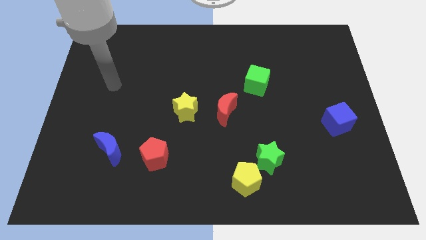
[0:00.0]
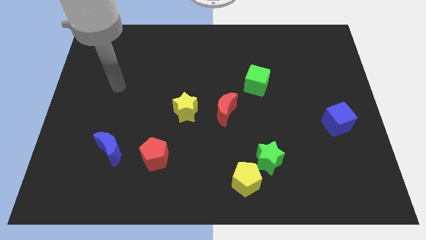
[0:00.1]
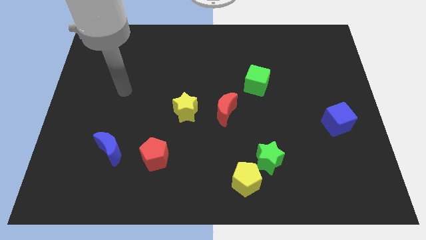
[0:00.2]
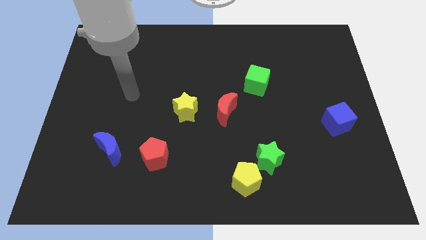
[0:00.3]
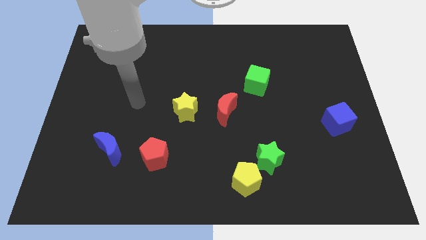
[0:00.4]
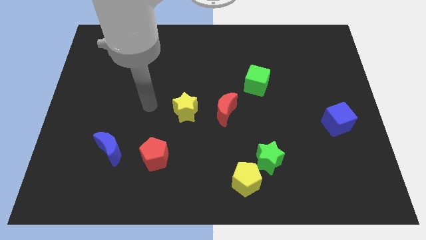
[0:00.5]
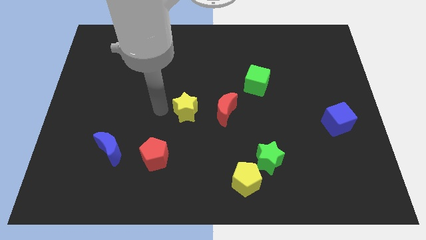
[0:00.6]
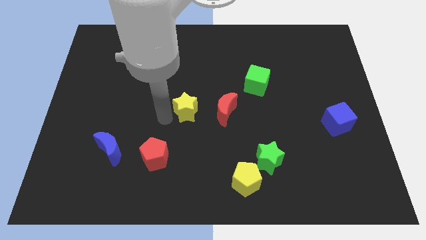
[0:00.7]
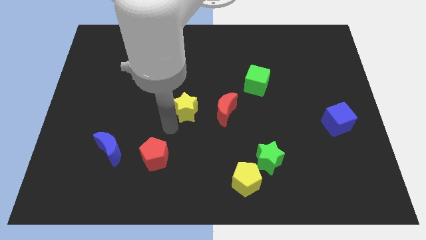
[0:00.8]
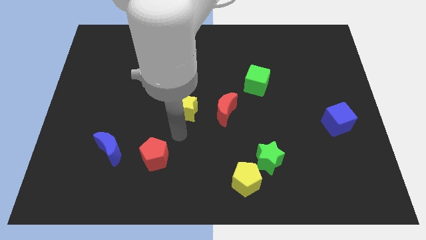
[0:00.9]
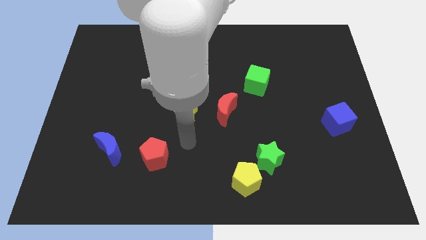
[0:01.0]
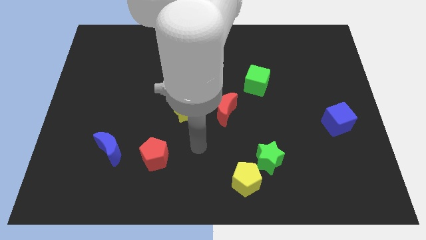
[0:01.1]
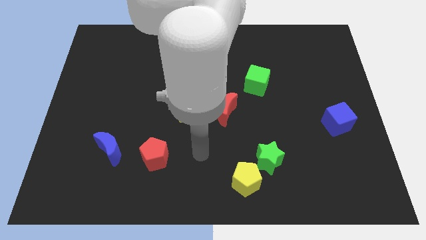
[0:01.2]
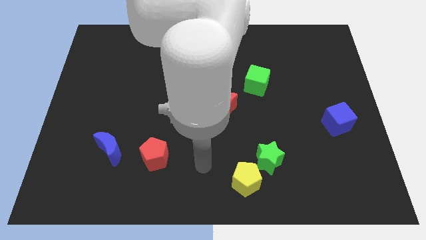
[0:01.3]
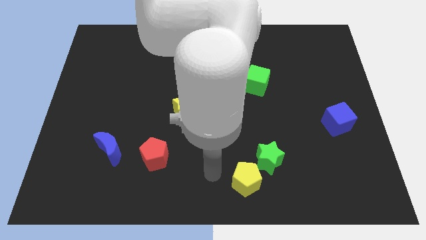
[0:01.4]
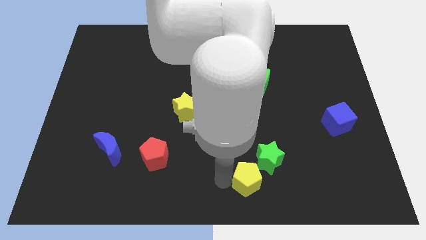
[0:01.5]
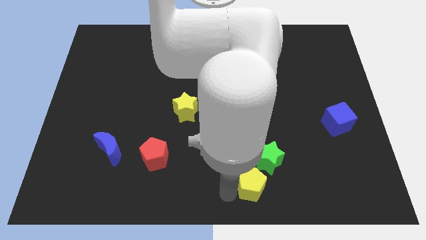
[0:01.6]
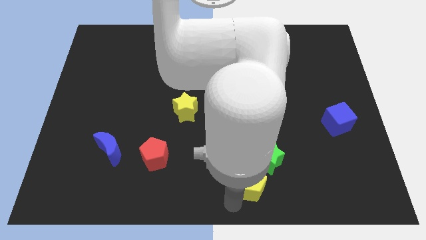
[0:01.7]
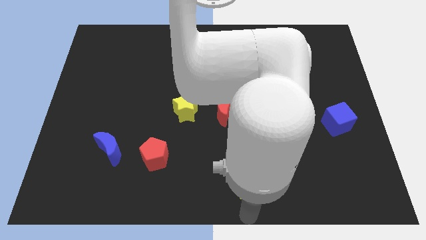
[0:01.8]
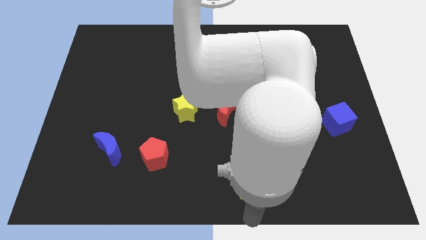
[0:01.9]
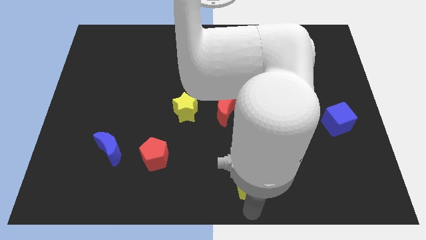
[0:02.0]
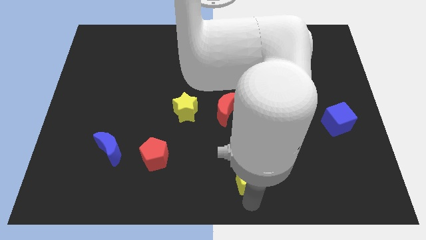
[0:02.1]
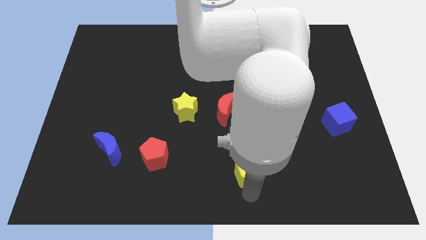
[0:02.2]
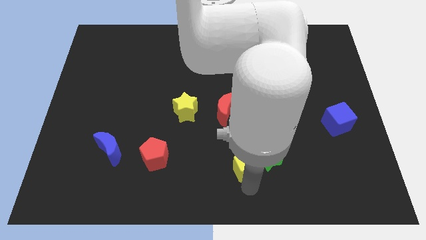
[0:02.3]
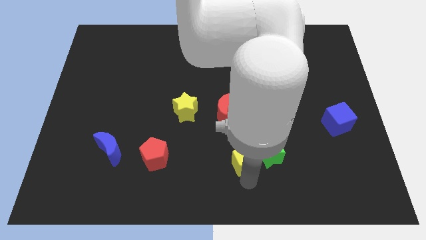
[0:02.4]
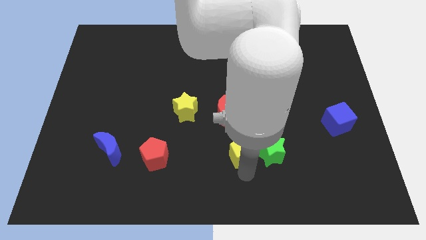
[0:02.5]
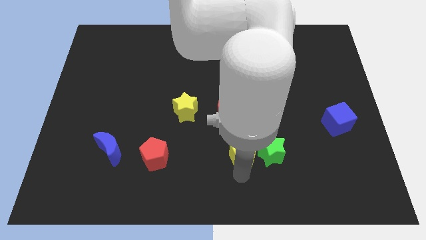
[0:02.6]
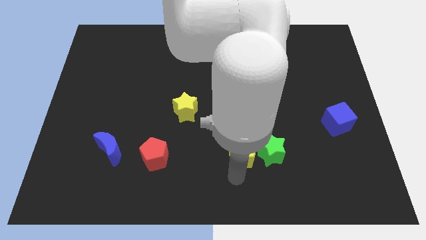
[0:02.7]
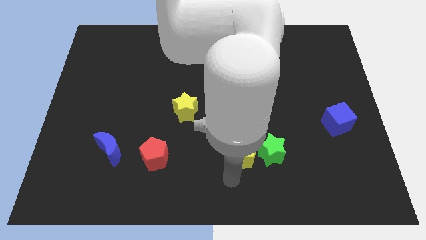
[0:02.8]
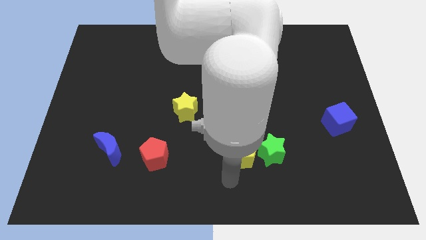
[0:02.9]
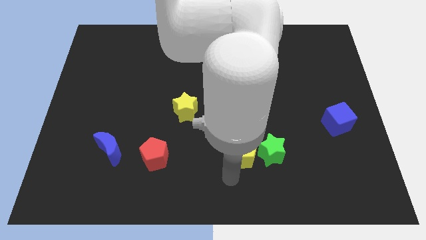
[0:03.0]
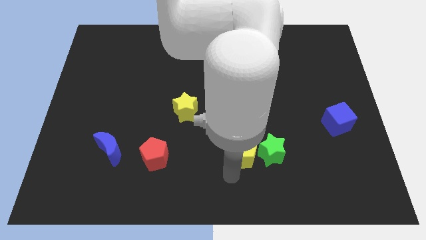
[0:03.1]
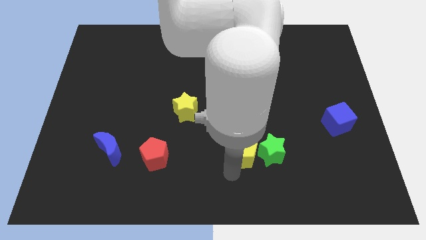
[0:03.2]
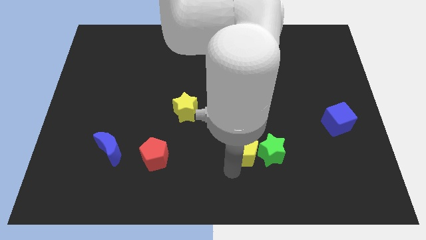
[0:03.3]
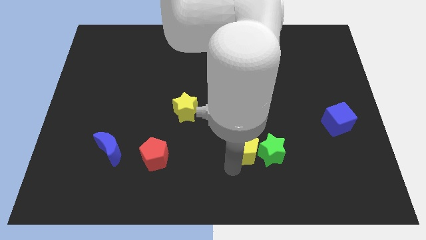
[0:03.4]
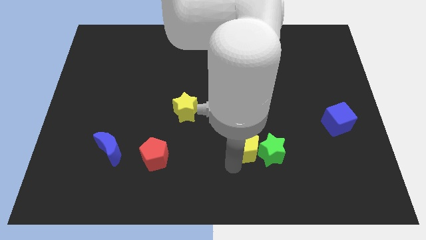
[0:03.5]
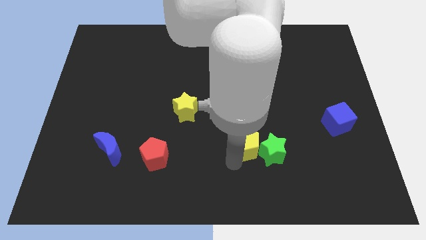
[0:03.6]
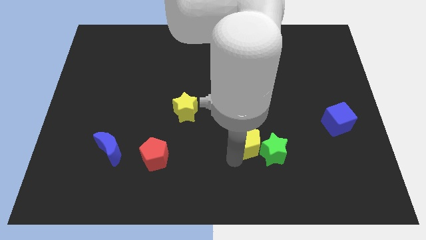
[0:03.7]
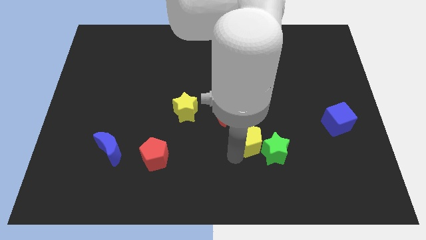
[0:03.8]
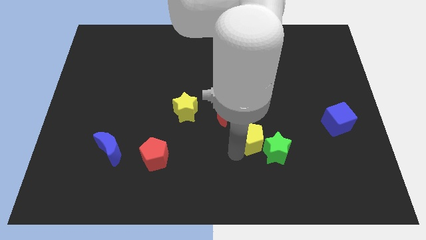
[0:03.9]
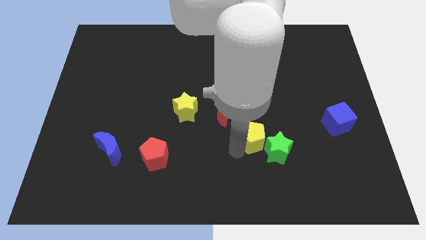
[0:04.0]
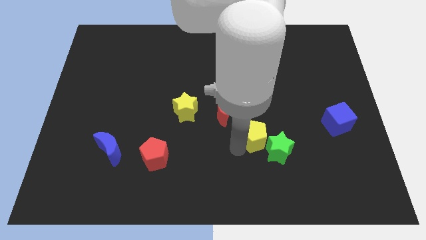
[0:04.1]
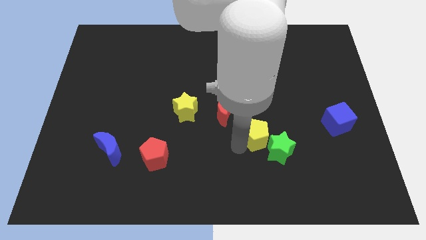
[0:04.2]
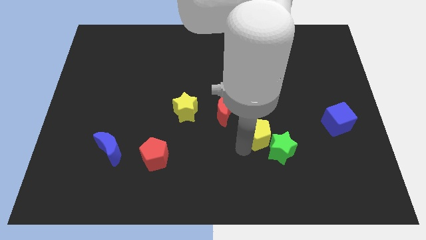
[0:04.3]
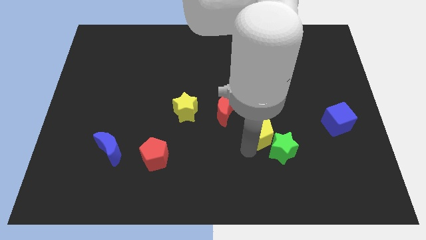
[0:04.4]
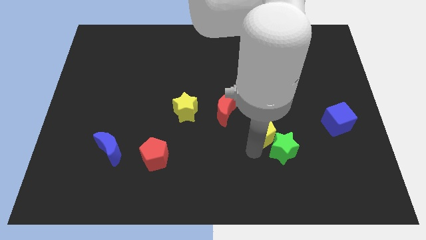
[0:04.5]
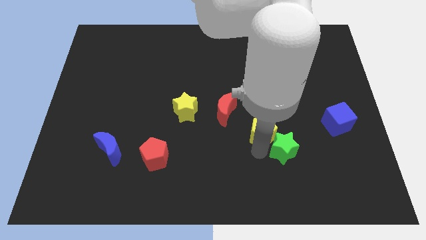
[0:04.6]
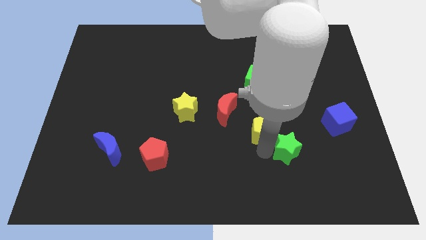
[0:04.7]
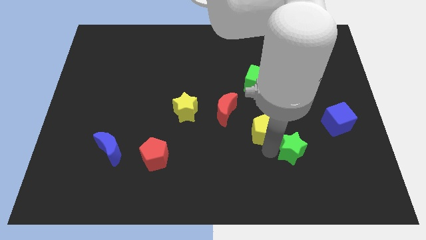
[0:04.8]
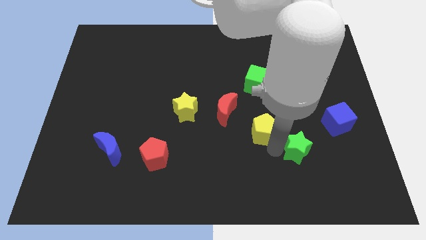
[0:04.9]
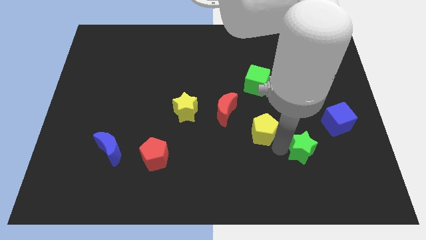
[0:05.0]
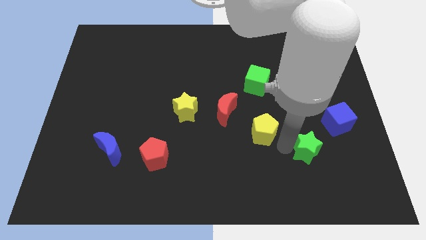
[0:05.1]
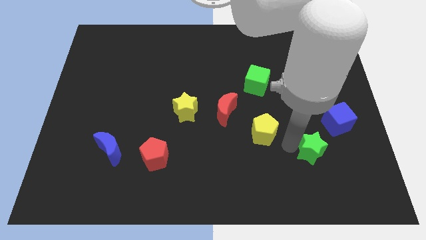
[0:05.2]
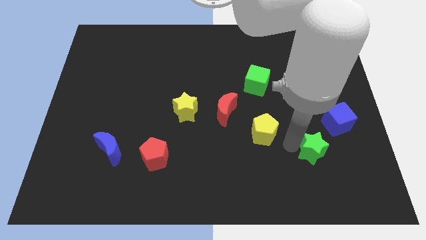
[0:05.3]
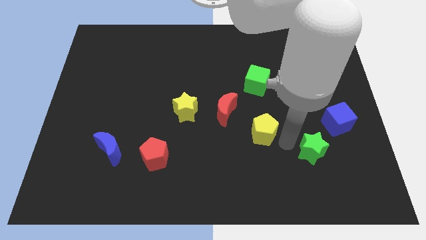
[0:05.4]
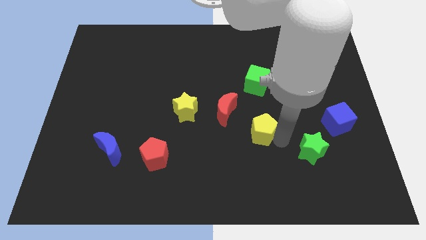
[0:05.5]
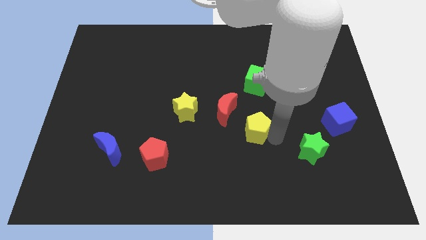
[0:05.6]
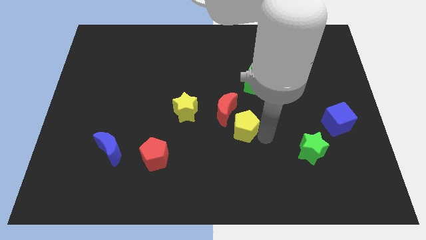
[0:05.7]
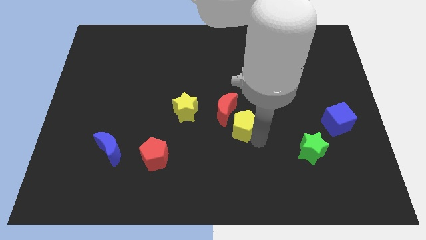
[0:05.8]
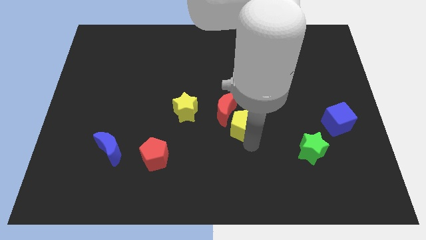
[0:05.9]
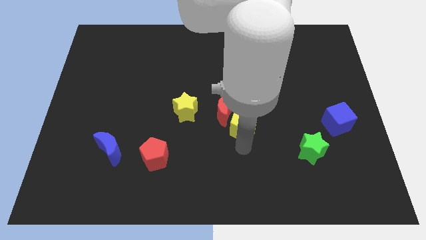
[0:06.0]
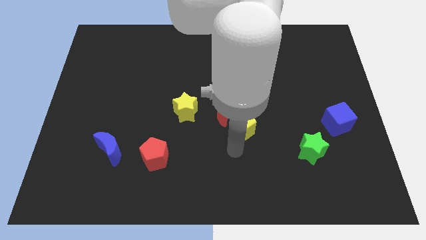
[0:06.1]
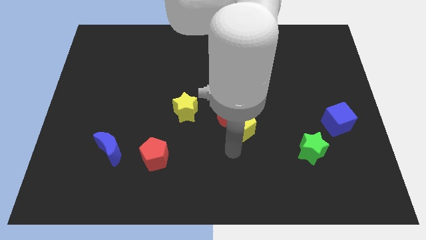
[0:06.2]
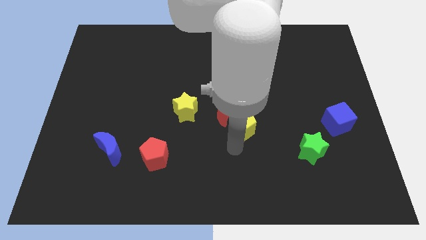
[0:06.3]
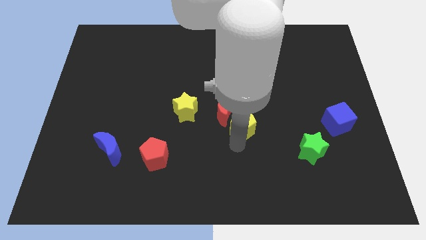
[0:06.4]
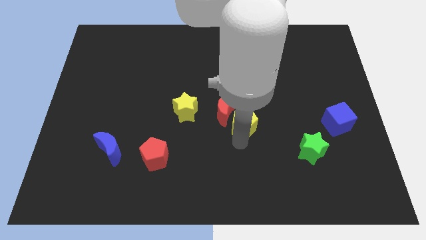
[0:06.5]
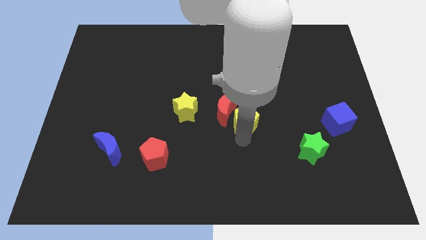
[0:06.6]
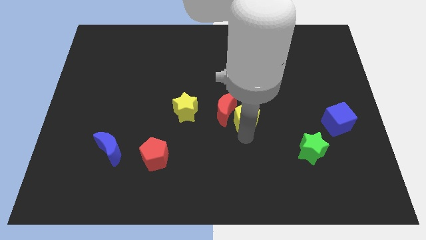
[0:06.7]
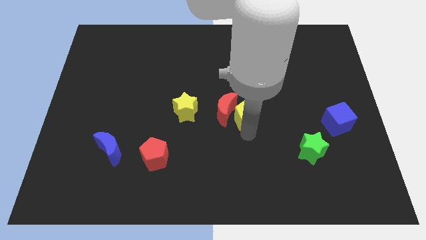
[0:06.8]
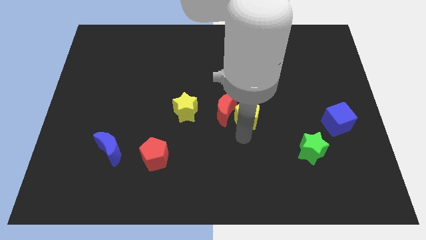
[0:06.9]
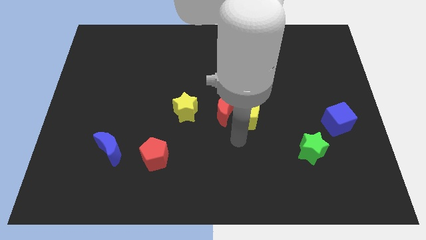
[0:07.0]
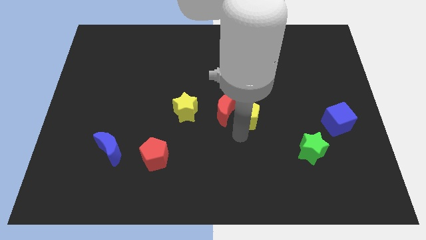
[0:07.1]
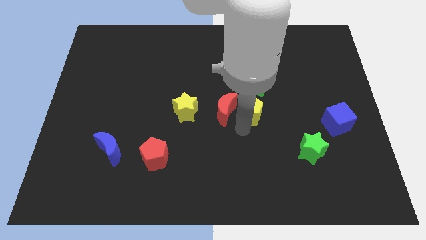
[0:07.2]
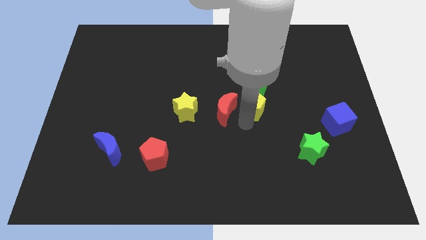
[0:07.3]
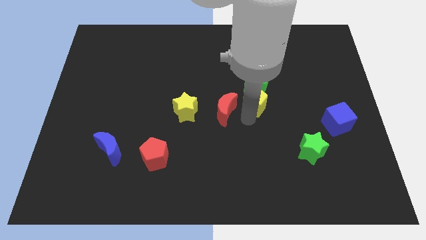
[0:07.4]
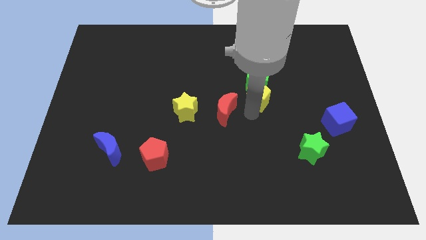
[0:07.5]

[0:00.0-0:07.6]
put the yellow pentagon towards the green cube
